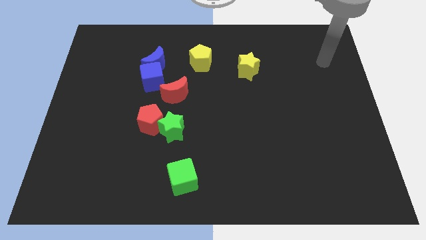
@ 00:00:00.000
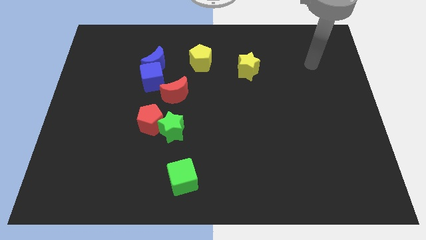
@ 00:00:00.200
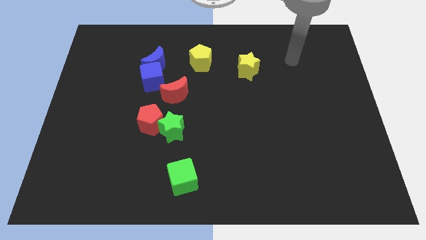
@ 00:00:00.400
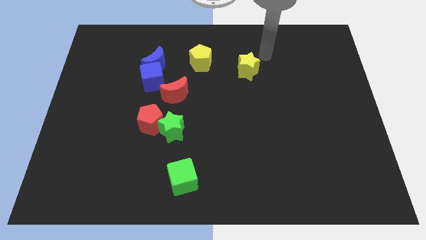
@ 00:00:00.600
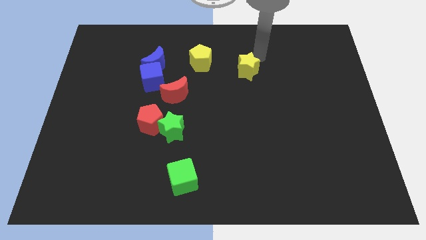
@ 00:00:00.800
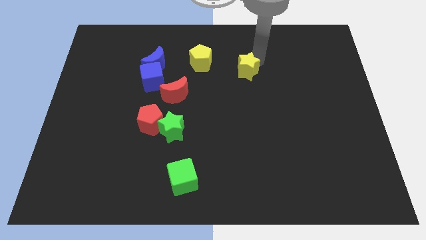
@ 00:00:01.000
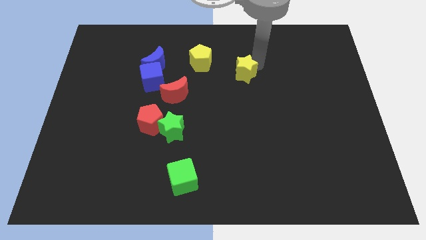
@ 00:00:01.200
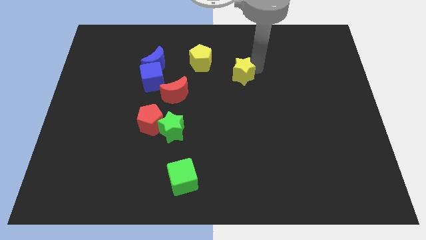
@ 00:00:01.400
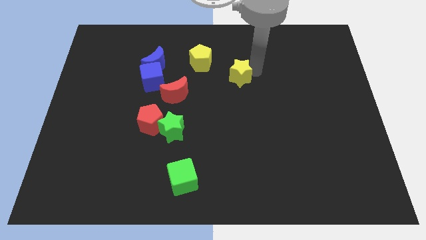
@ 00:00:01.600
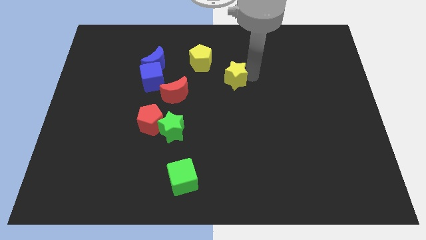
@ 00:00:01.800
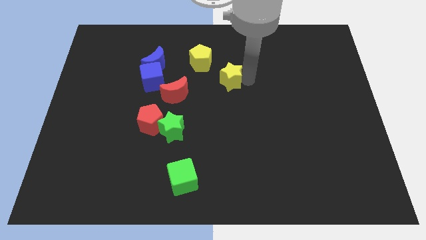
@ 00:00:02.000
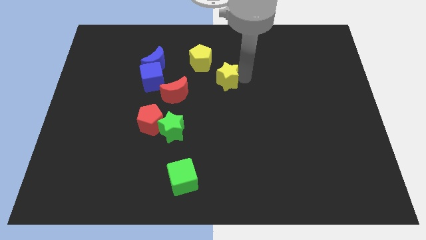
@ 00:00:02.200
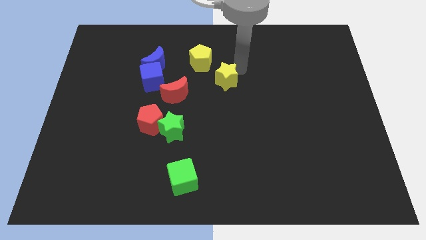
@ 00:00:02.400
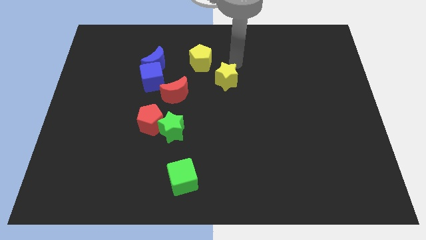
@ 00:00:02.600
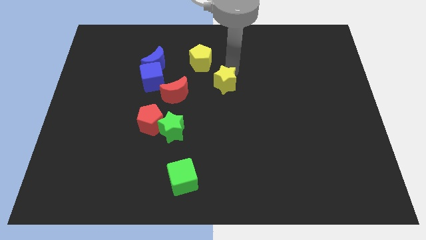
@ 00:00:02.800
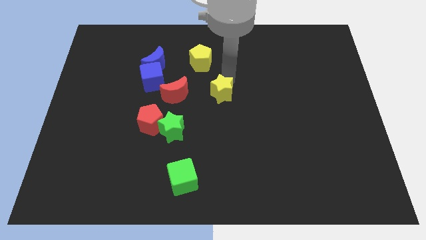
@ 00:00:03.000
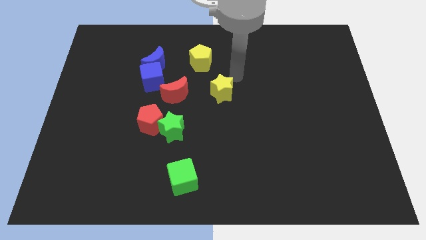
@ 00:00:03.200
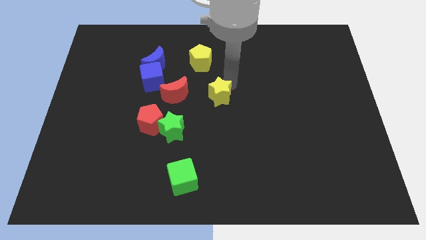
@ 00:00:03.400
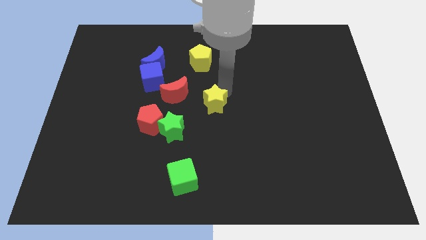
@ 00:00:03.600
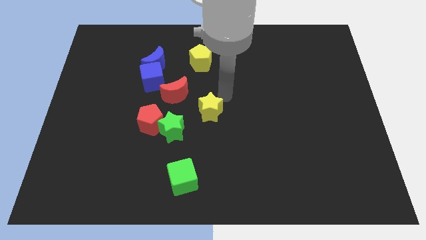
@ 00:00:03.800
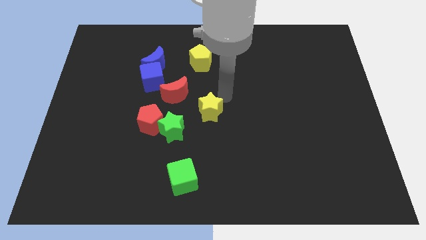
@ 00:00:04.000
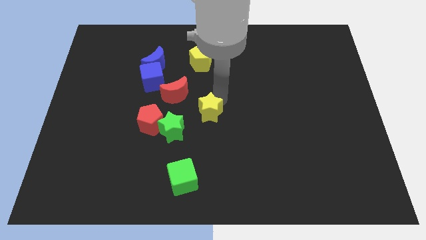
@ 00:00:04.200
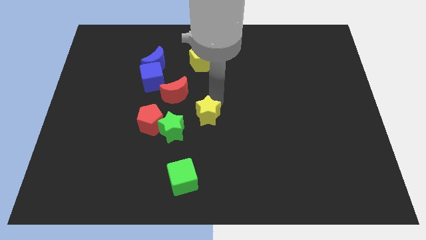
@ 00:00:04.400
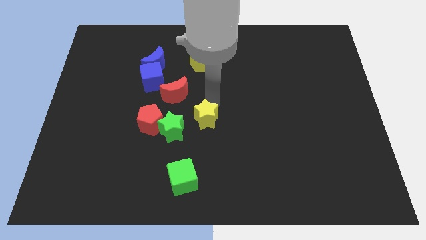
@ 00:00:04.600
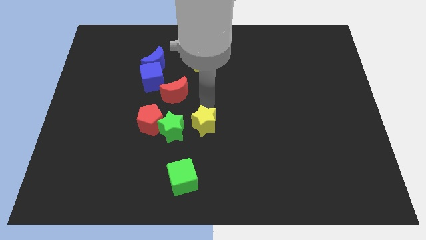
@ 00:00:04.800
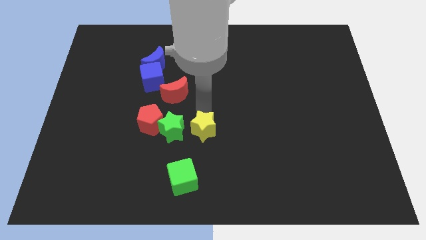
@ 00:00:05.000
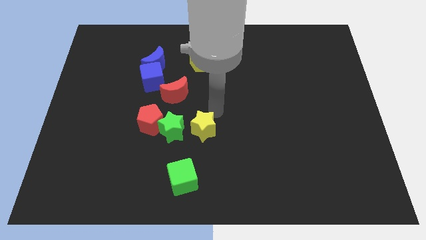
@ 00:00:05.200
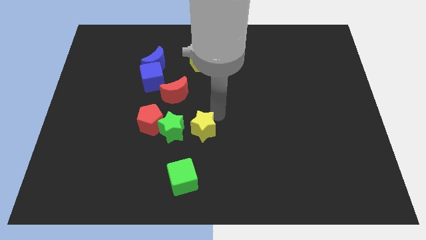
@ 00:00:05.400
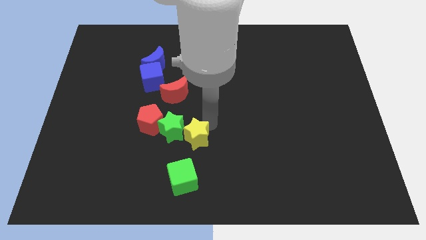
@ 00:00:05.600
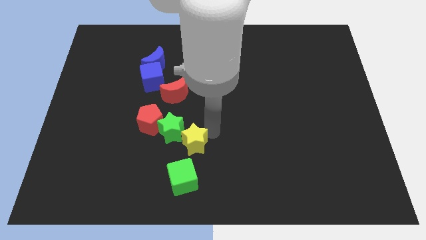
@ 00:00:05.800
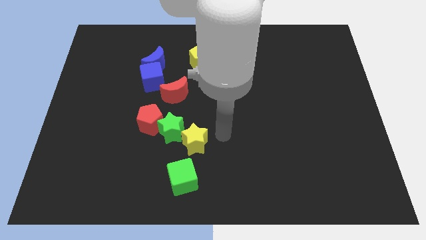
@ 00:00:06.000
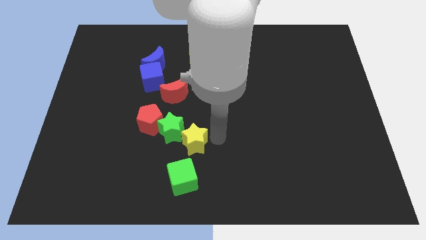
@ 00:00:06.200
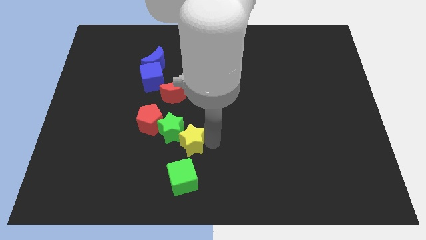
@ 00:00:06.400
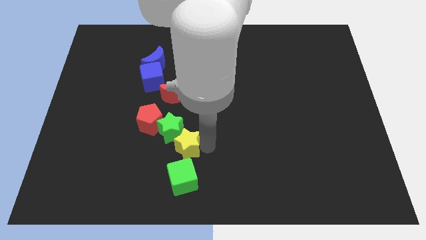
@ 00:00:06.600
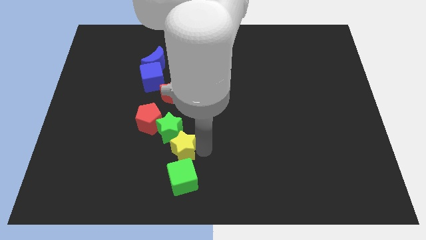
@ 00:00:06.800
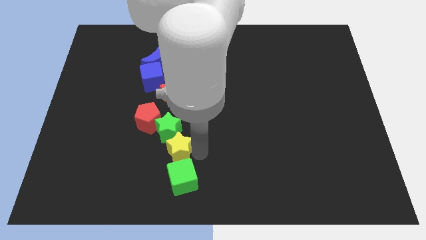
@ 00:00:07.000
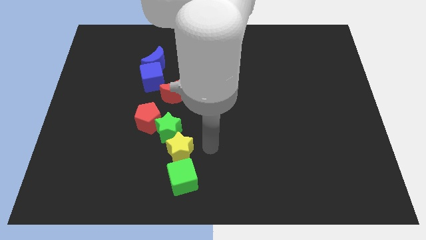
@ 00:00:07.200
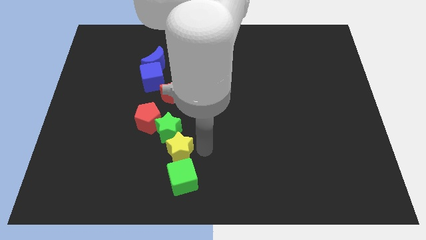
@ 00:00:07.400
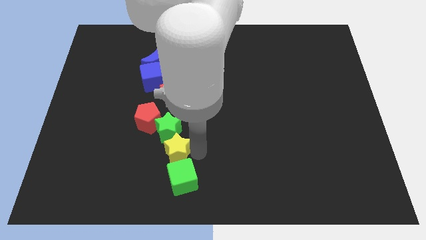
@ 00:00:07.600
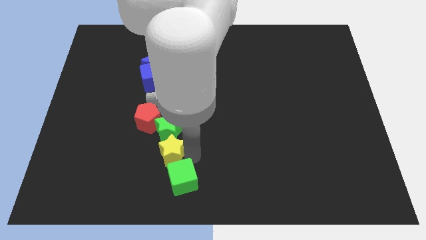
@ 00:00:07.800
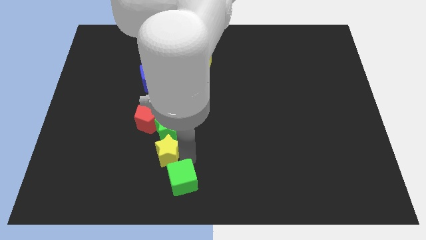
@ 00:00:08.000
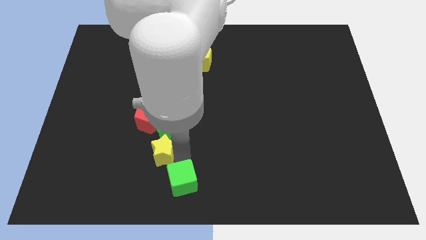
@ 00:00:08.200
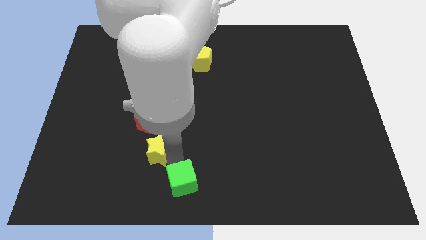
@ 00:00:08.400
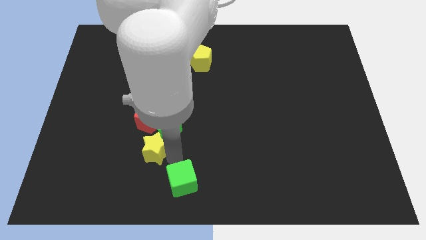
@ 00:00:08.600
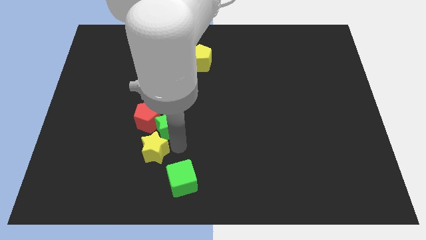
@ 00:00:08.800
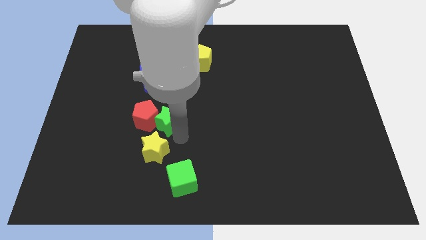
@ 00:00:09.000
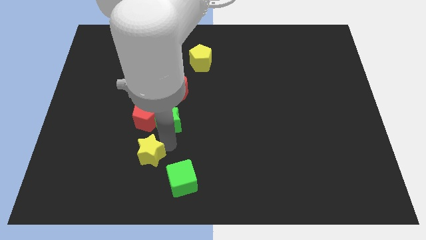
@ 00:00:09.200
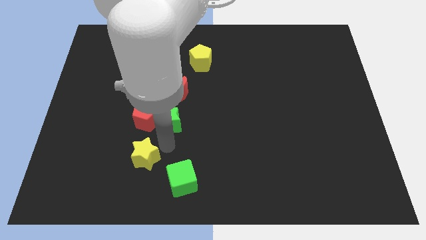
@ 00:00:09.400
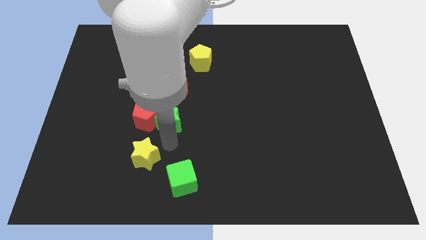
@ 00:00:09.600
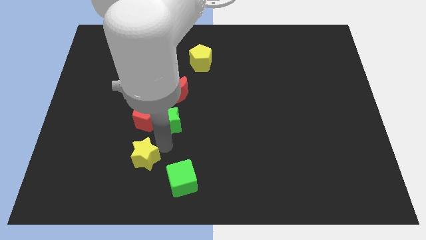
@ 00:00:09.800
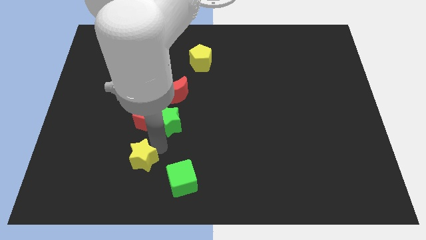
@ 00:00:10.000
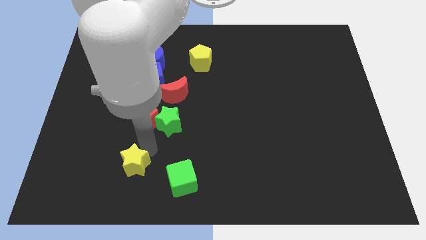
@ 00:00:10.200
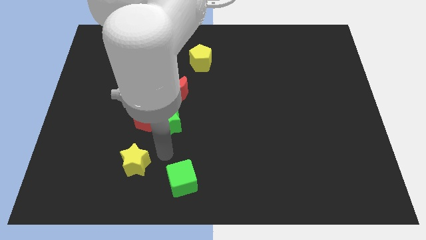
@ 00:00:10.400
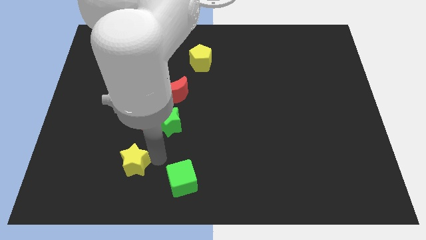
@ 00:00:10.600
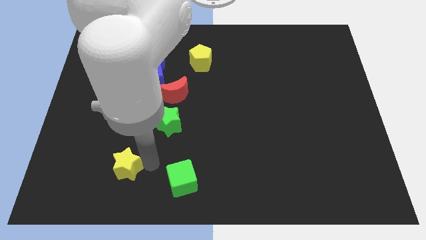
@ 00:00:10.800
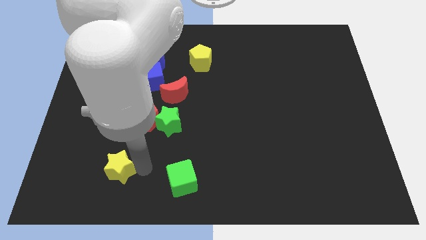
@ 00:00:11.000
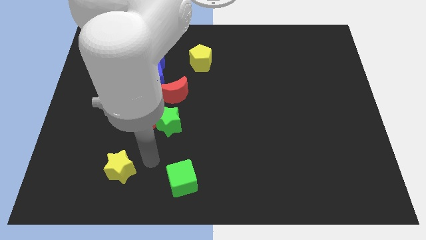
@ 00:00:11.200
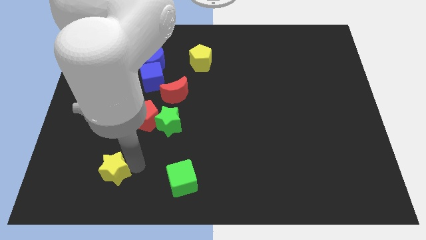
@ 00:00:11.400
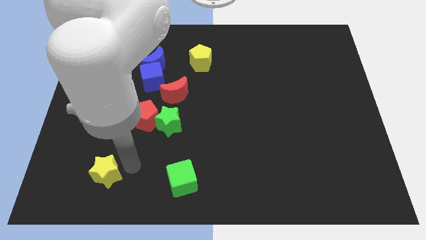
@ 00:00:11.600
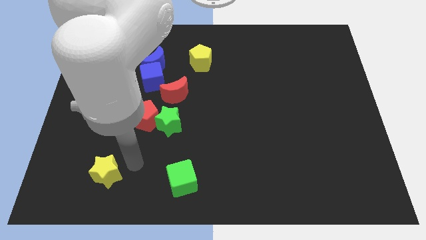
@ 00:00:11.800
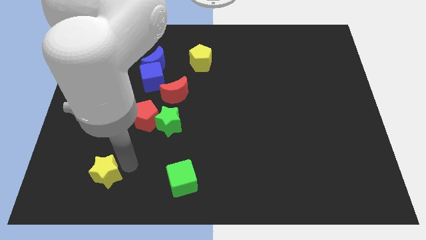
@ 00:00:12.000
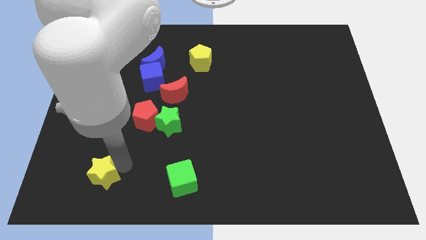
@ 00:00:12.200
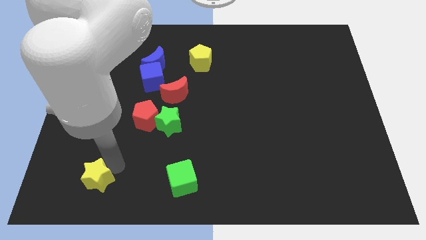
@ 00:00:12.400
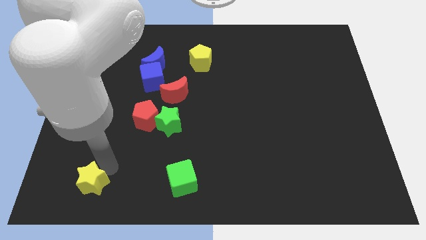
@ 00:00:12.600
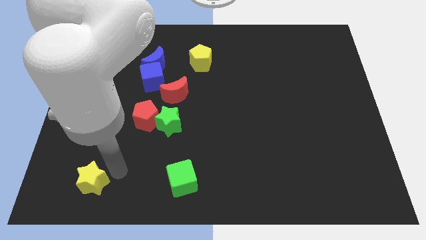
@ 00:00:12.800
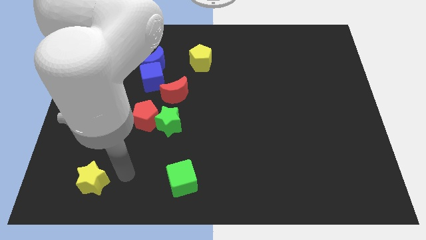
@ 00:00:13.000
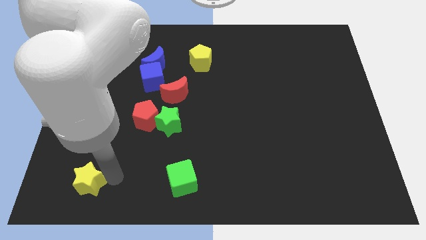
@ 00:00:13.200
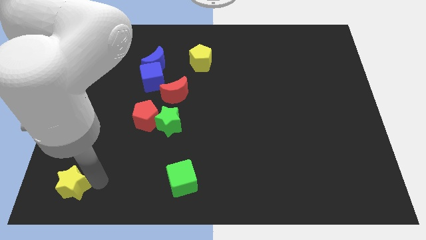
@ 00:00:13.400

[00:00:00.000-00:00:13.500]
move the yellow star to the bottom left
